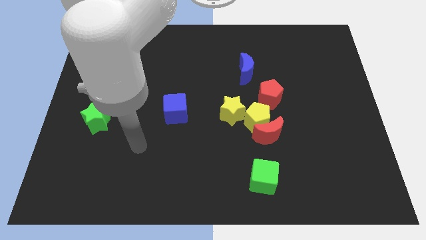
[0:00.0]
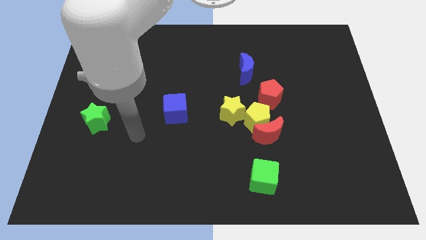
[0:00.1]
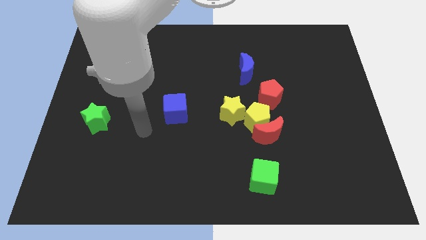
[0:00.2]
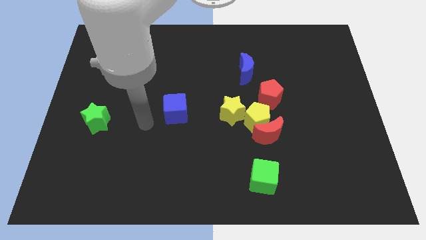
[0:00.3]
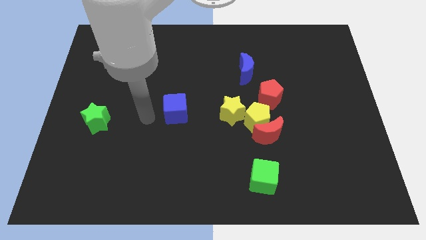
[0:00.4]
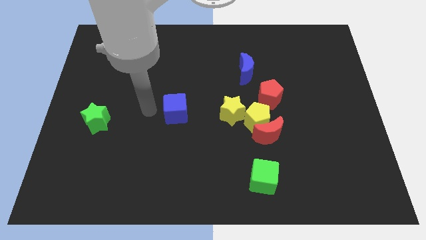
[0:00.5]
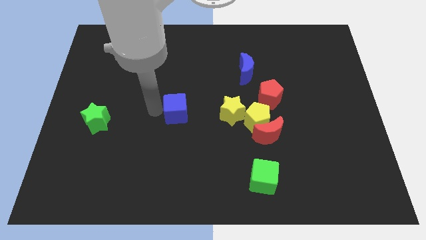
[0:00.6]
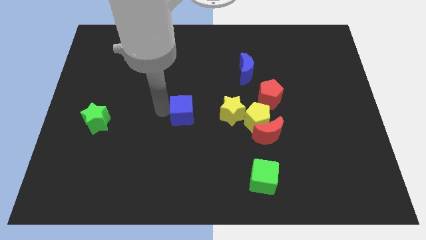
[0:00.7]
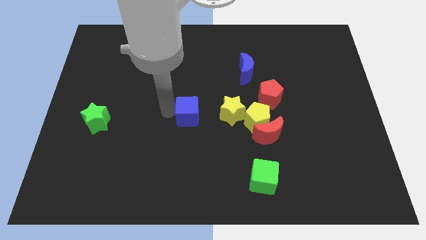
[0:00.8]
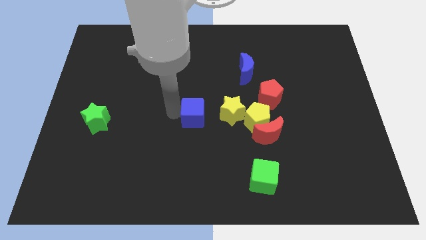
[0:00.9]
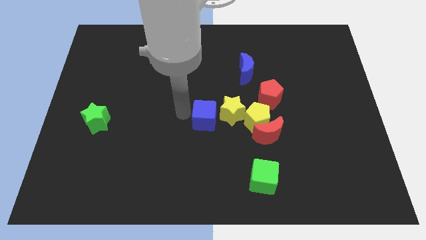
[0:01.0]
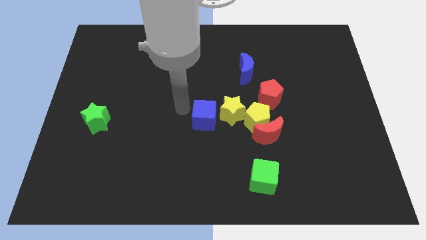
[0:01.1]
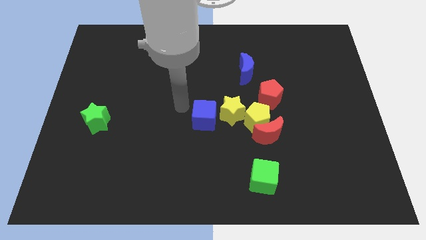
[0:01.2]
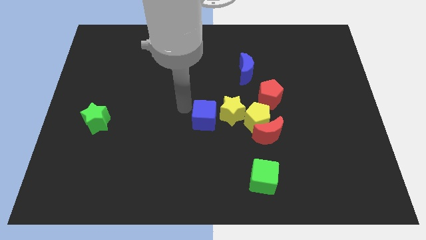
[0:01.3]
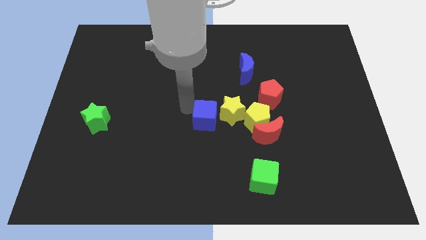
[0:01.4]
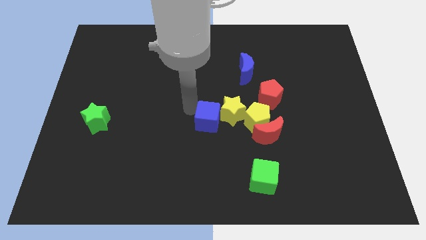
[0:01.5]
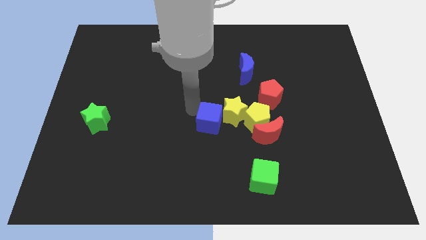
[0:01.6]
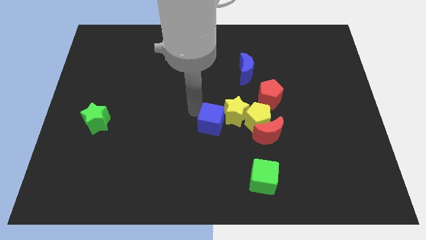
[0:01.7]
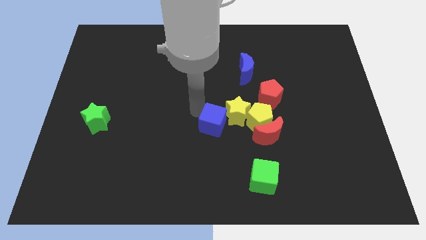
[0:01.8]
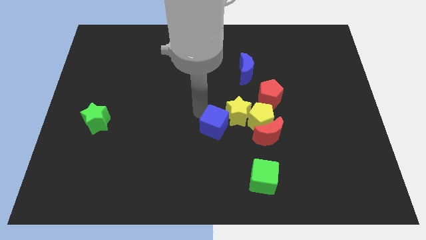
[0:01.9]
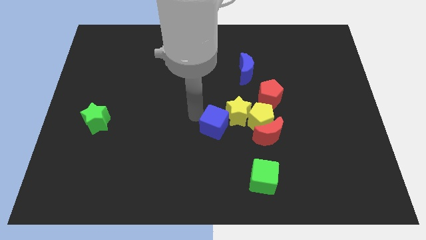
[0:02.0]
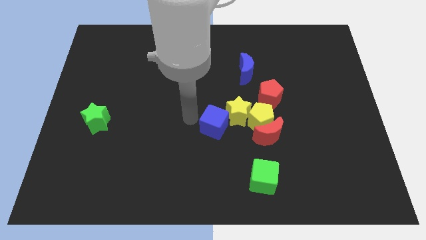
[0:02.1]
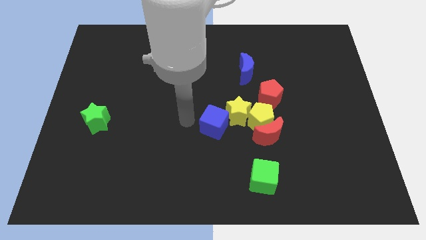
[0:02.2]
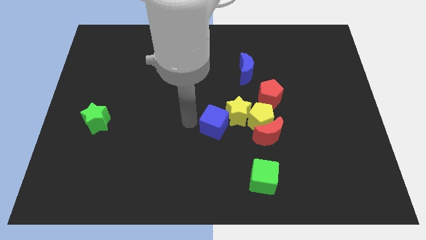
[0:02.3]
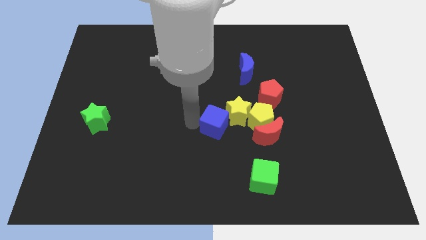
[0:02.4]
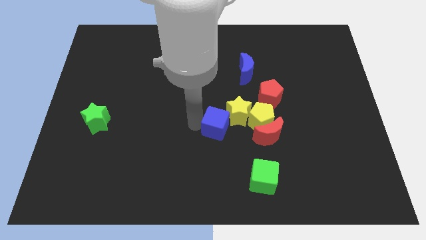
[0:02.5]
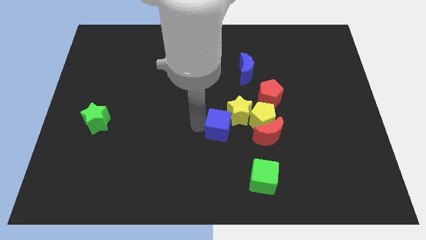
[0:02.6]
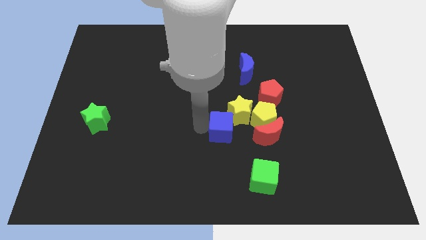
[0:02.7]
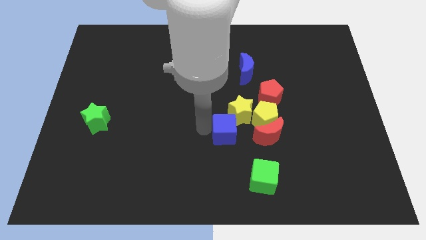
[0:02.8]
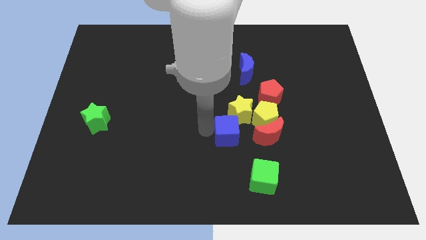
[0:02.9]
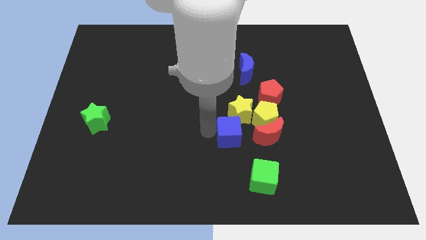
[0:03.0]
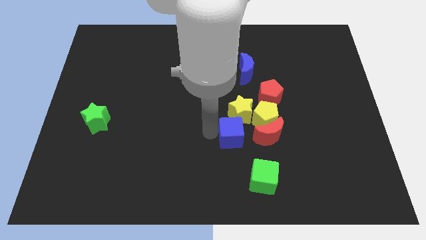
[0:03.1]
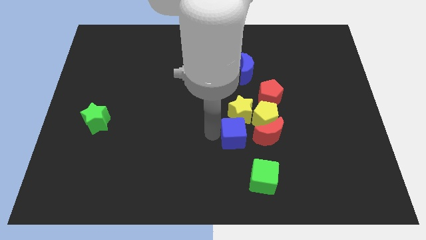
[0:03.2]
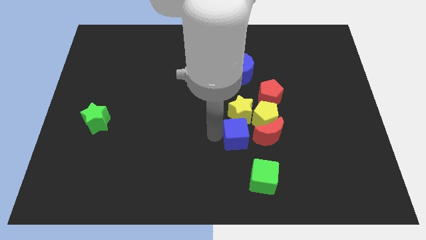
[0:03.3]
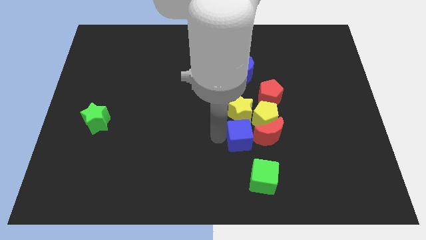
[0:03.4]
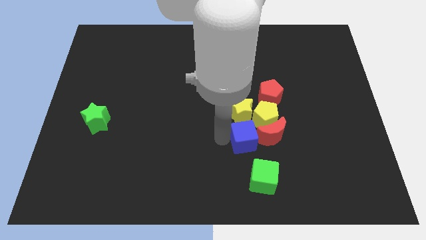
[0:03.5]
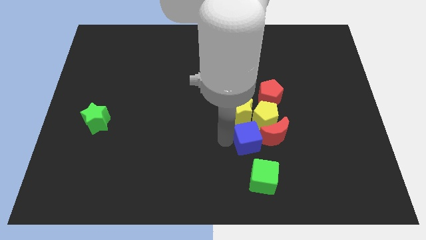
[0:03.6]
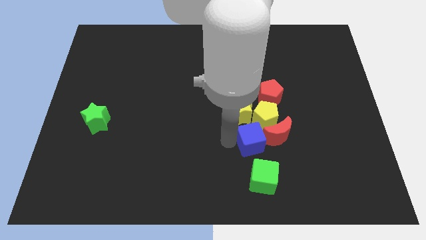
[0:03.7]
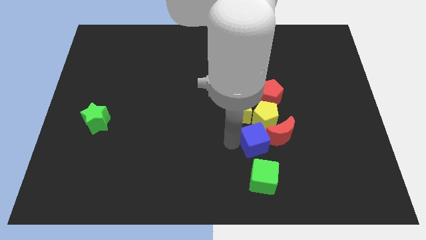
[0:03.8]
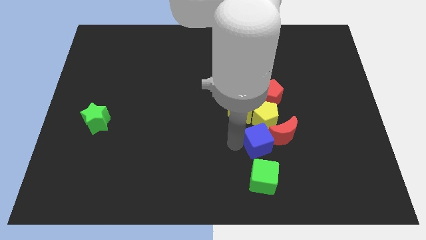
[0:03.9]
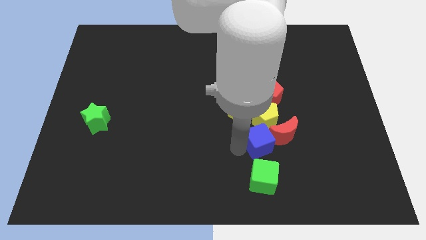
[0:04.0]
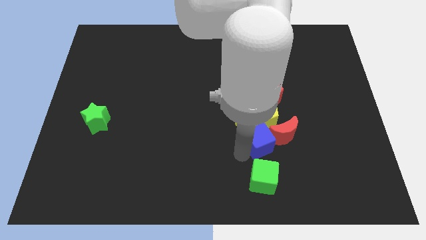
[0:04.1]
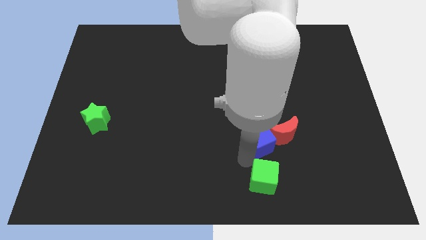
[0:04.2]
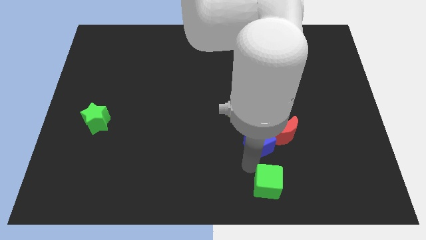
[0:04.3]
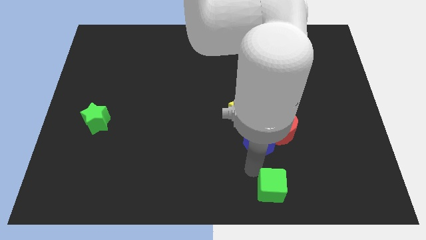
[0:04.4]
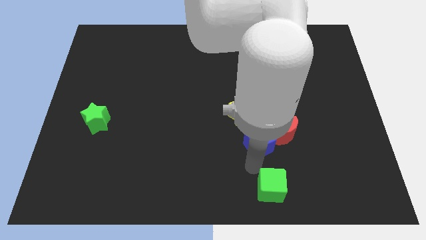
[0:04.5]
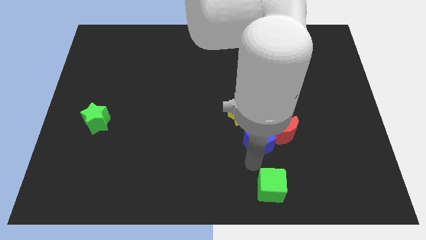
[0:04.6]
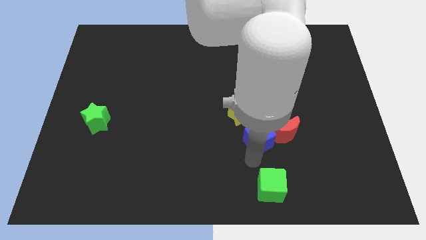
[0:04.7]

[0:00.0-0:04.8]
put the blue cube next to the yellow pentagon

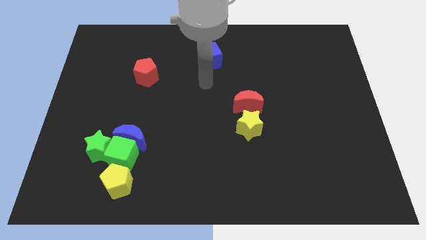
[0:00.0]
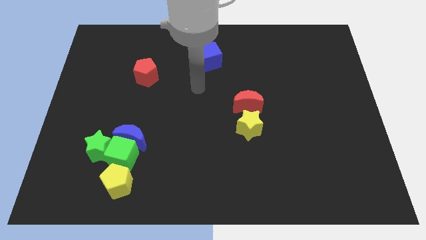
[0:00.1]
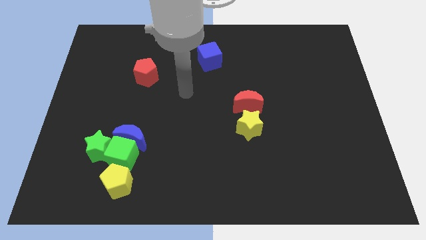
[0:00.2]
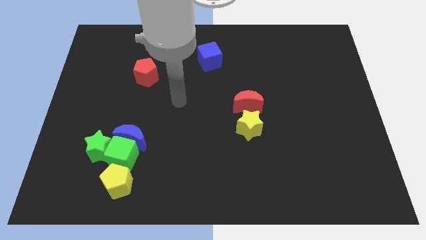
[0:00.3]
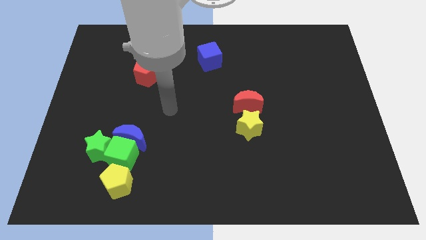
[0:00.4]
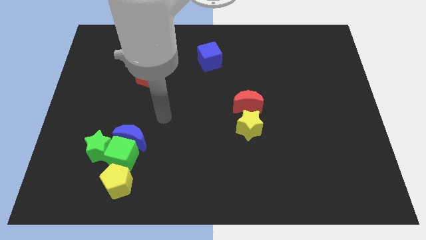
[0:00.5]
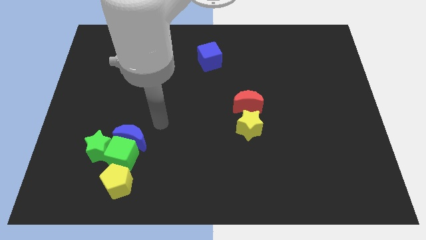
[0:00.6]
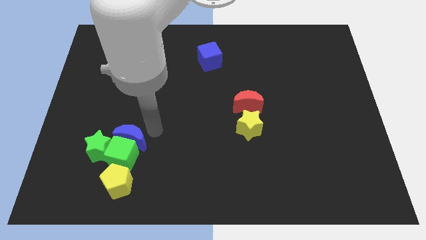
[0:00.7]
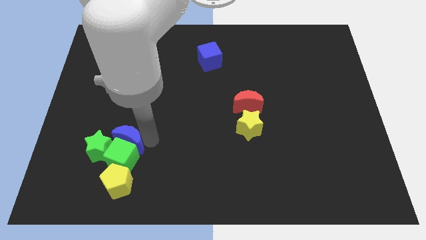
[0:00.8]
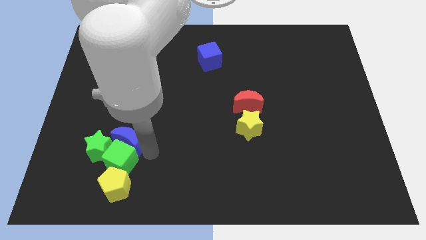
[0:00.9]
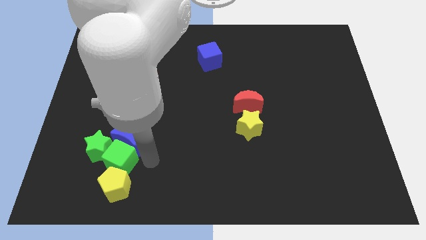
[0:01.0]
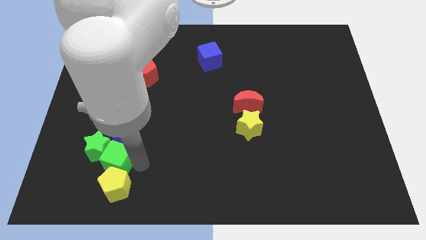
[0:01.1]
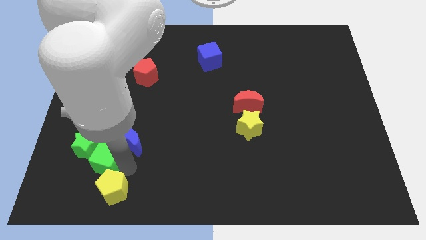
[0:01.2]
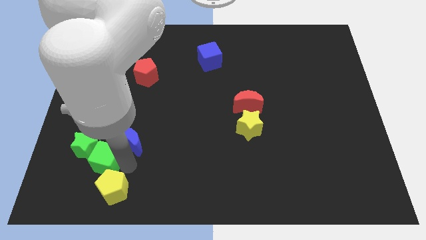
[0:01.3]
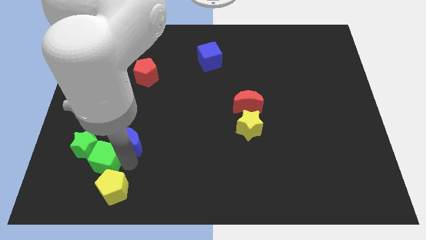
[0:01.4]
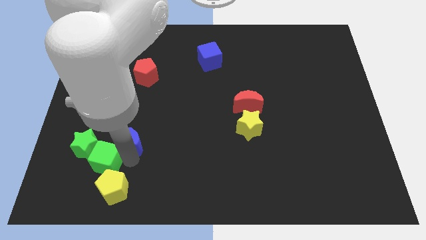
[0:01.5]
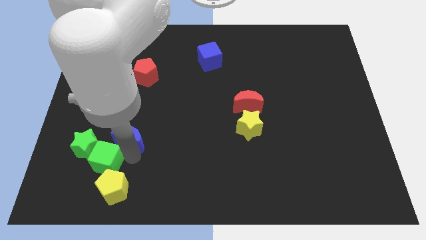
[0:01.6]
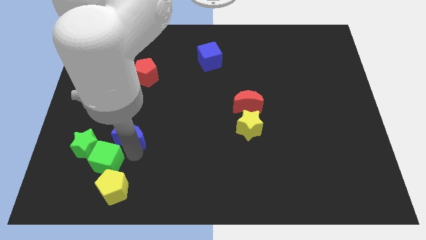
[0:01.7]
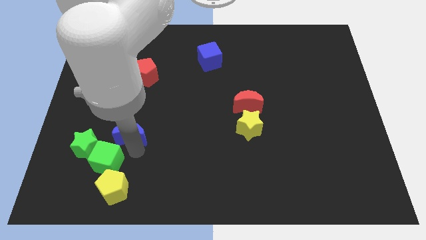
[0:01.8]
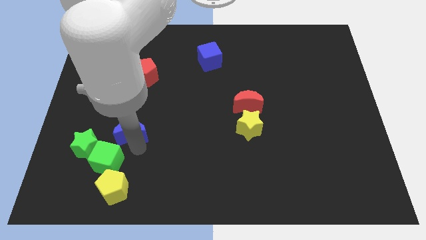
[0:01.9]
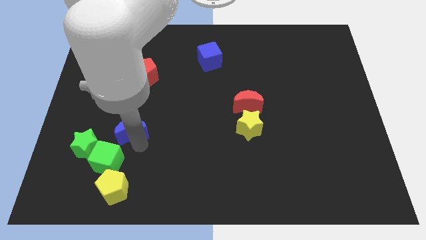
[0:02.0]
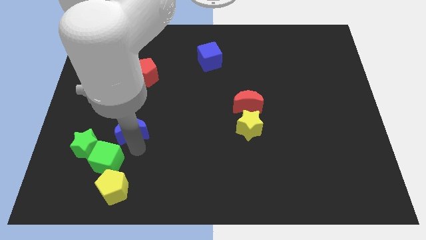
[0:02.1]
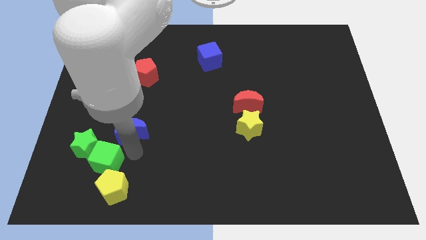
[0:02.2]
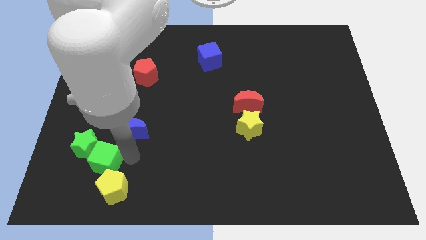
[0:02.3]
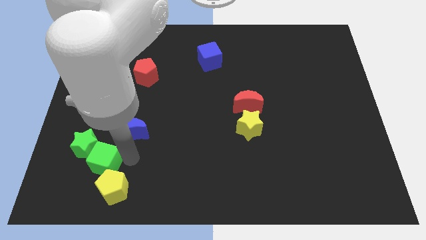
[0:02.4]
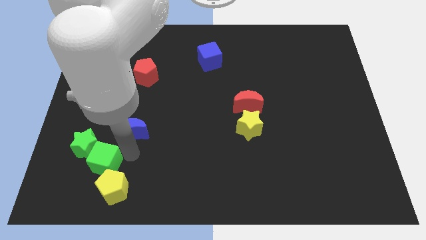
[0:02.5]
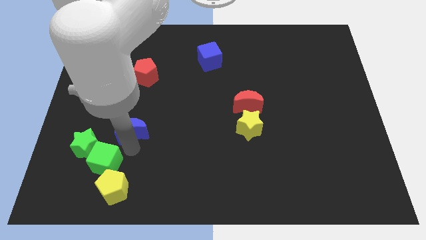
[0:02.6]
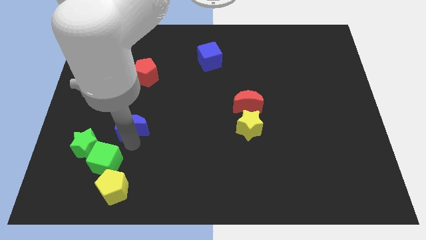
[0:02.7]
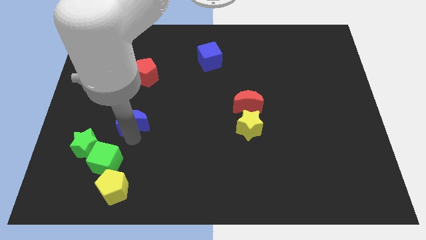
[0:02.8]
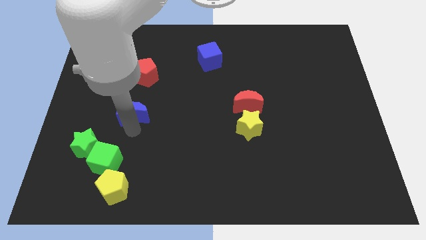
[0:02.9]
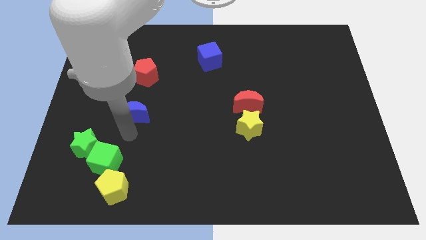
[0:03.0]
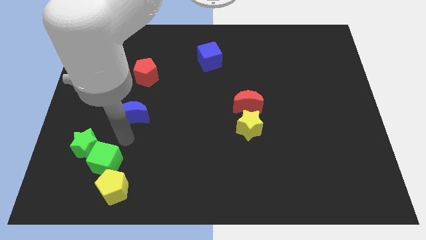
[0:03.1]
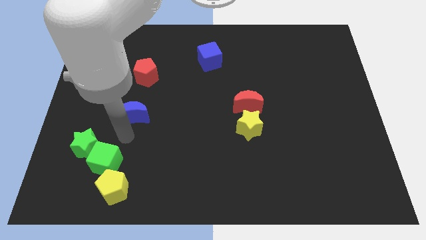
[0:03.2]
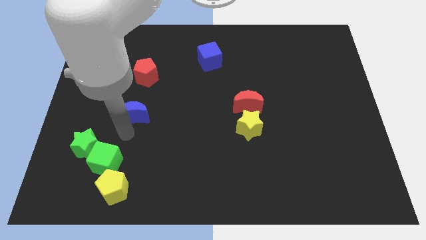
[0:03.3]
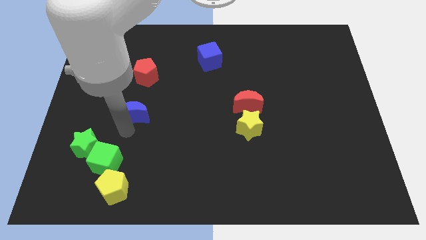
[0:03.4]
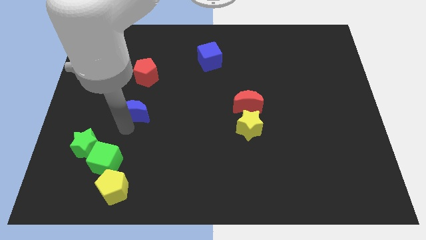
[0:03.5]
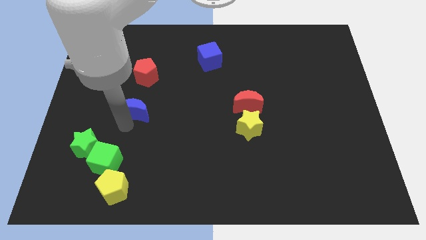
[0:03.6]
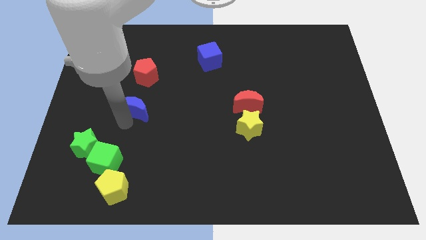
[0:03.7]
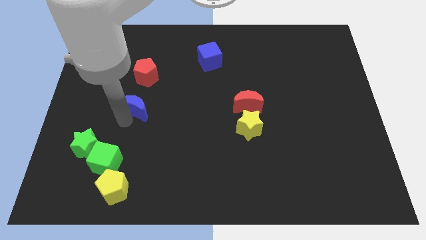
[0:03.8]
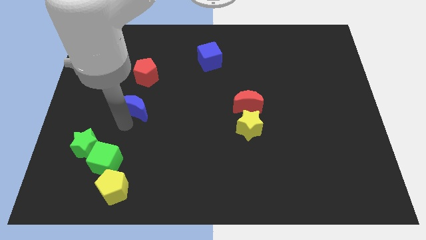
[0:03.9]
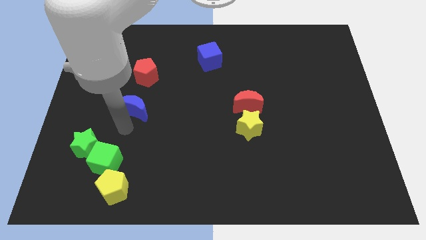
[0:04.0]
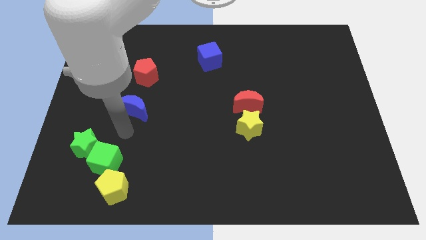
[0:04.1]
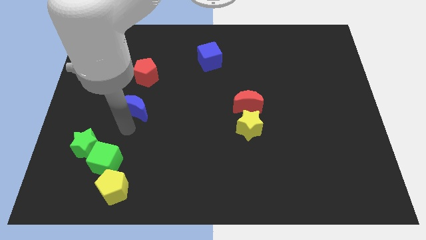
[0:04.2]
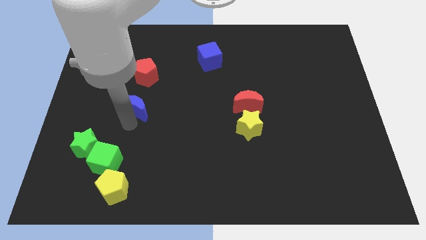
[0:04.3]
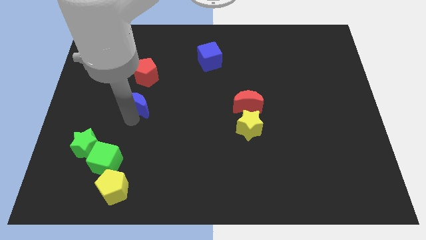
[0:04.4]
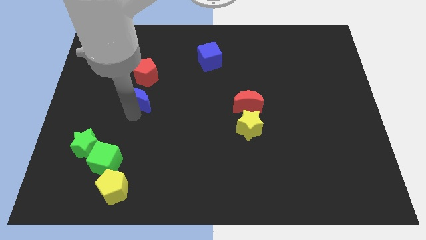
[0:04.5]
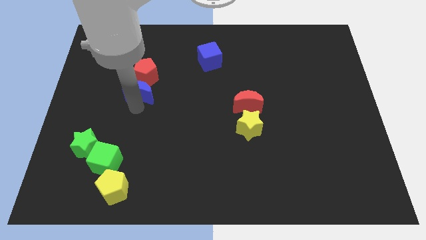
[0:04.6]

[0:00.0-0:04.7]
push the blue moon to the red pentagon
